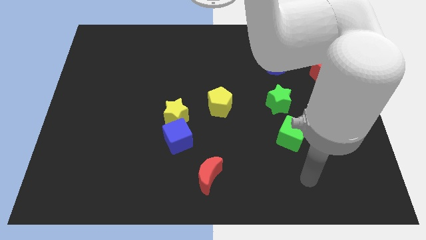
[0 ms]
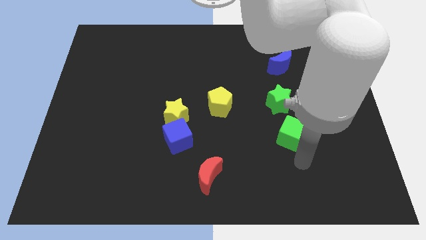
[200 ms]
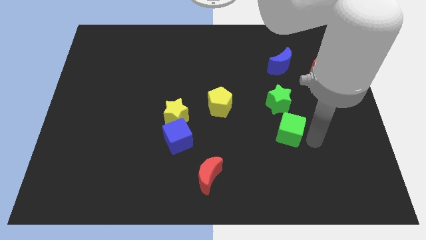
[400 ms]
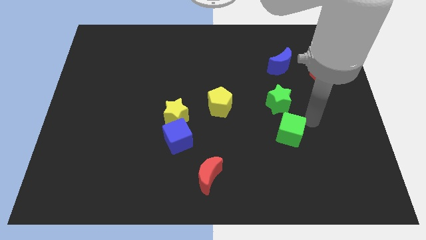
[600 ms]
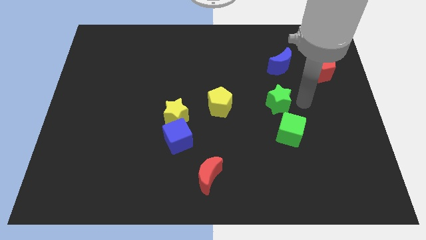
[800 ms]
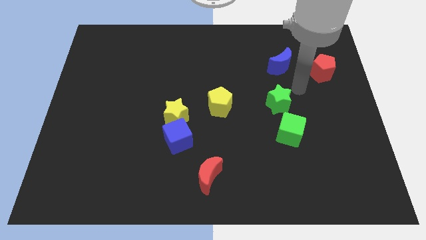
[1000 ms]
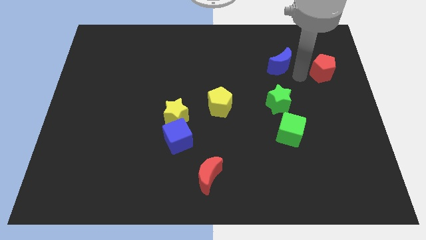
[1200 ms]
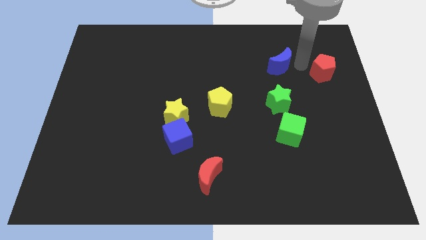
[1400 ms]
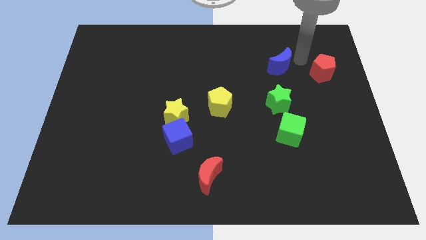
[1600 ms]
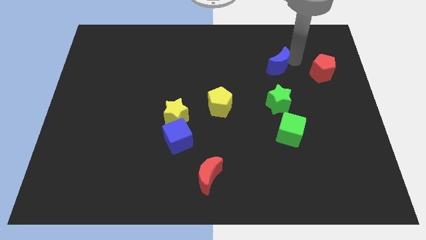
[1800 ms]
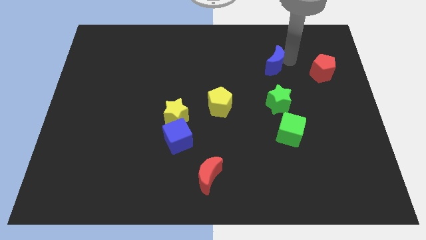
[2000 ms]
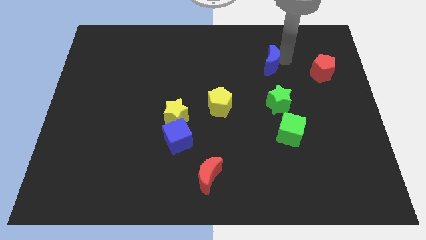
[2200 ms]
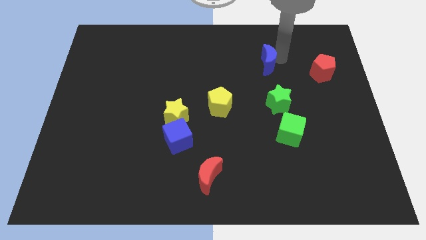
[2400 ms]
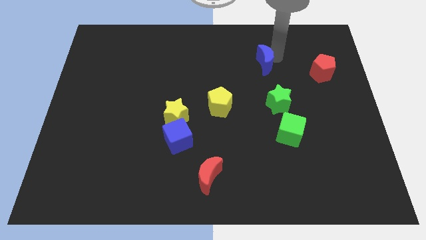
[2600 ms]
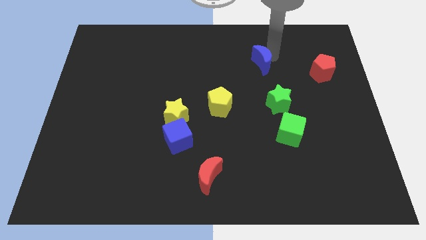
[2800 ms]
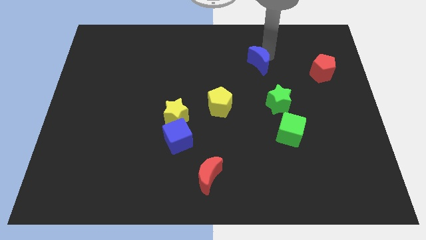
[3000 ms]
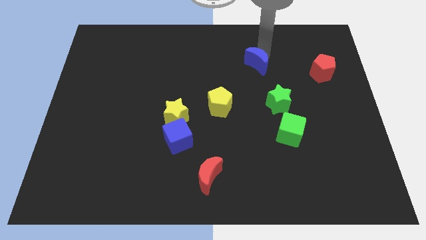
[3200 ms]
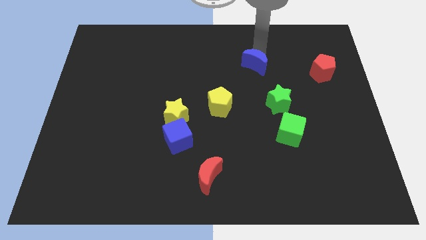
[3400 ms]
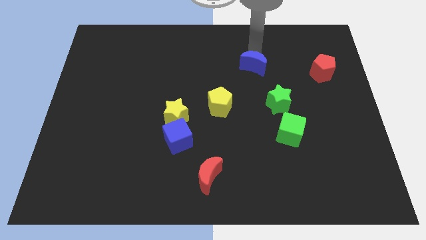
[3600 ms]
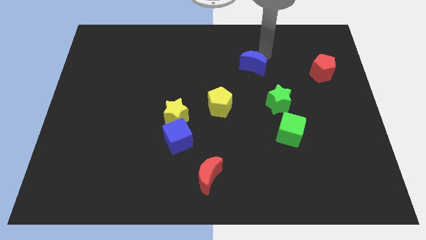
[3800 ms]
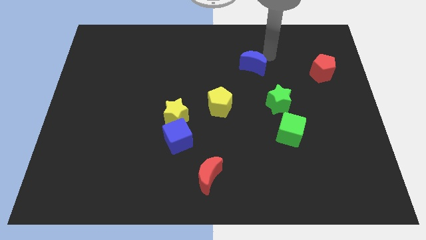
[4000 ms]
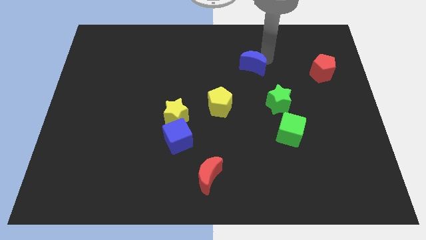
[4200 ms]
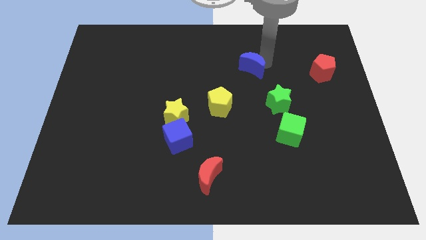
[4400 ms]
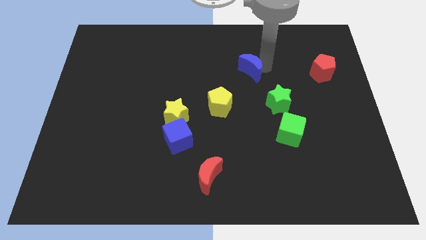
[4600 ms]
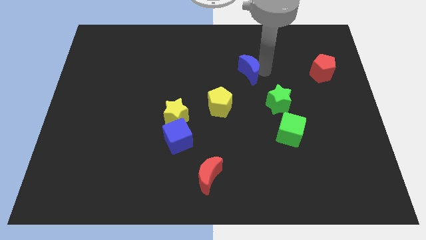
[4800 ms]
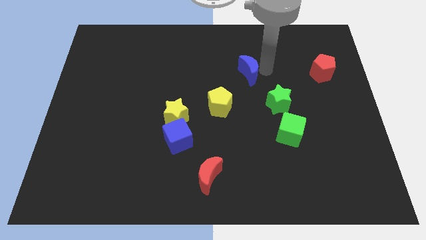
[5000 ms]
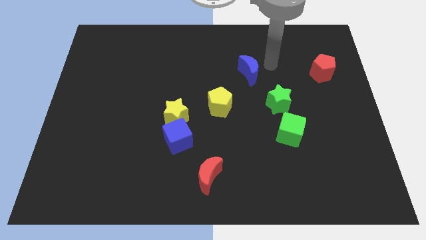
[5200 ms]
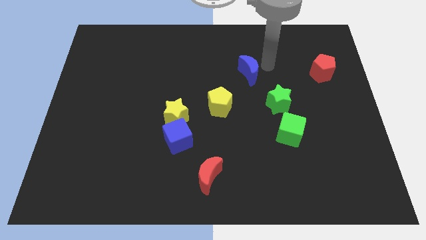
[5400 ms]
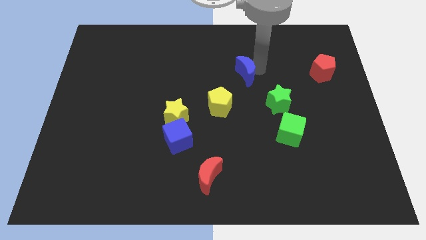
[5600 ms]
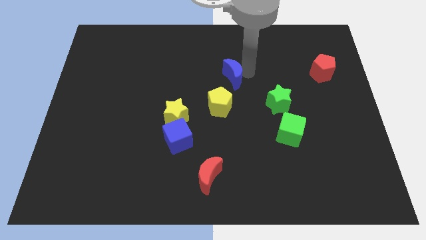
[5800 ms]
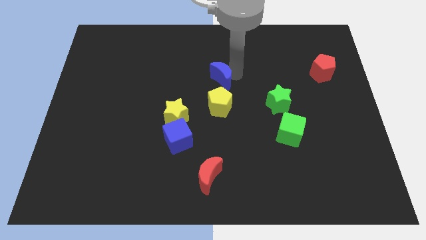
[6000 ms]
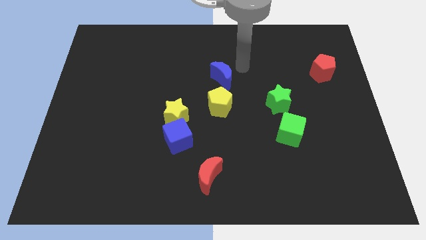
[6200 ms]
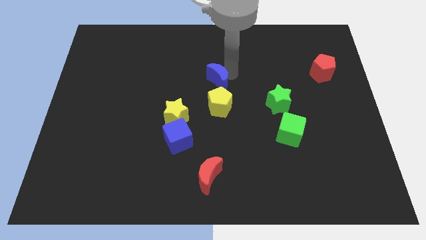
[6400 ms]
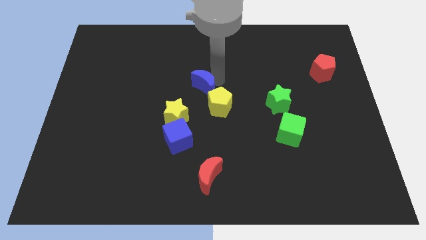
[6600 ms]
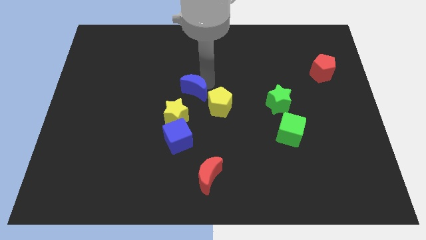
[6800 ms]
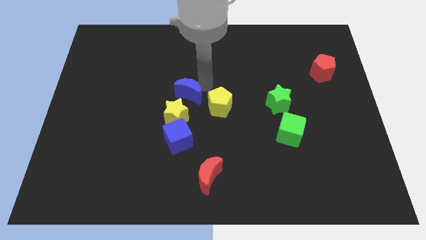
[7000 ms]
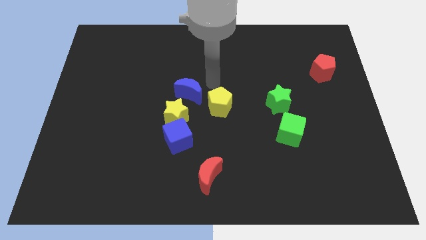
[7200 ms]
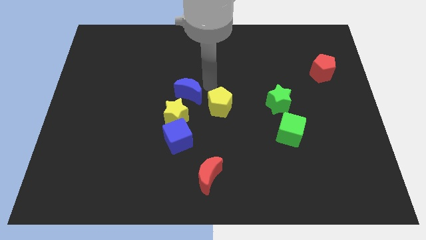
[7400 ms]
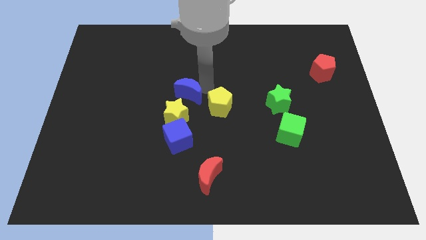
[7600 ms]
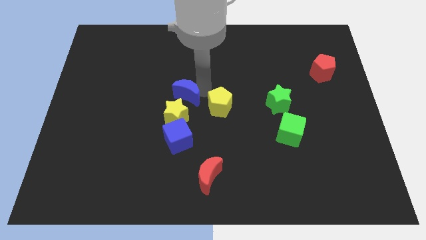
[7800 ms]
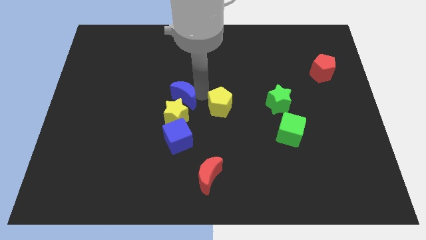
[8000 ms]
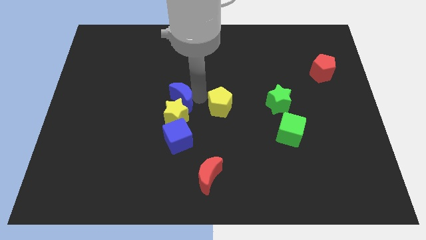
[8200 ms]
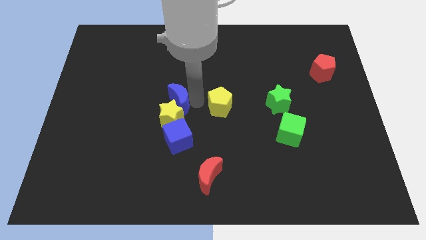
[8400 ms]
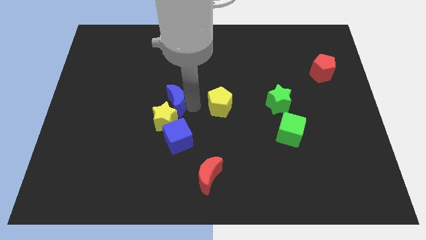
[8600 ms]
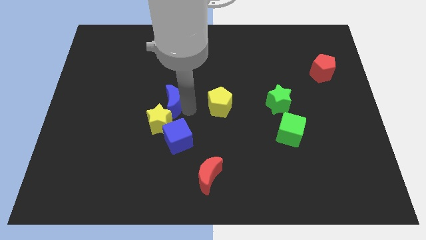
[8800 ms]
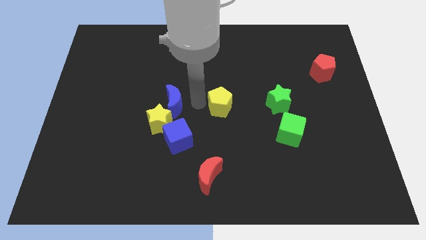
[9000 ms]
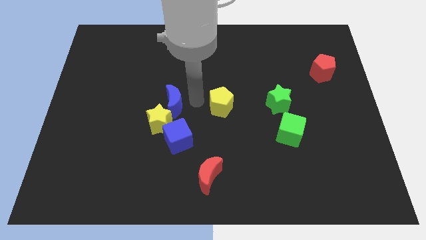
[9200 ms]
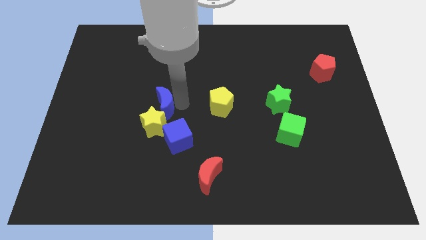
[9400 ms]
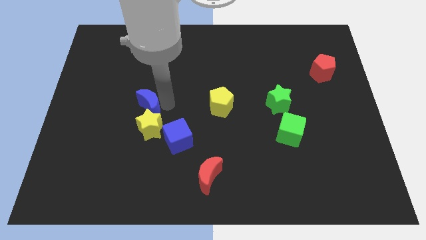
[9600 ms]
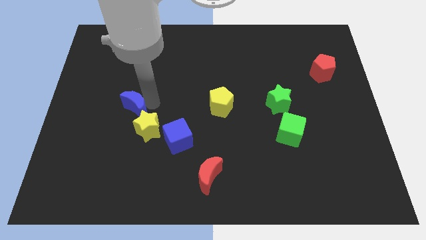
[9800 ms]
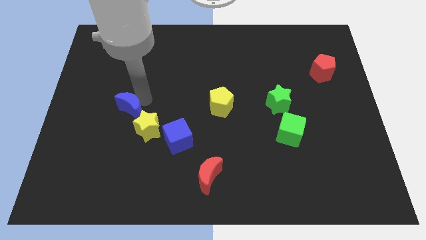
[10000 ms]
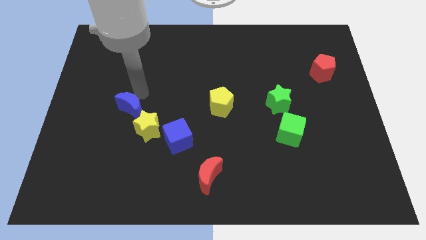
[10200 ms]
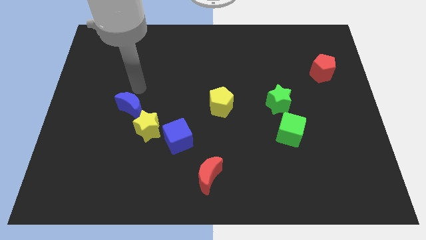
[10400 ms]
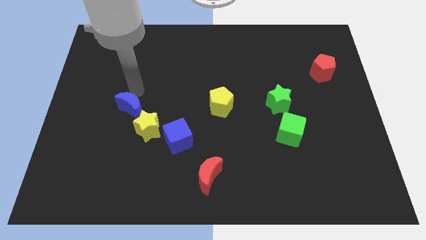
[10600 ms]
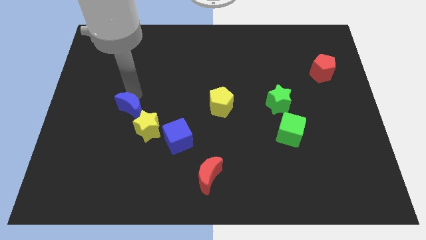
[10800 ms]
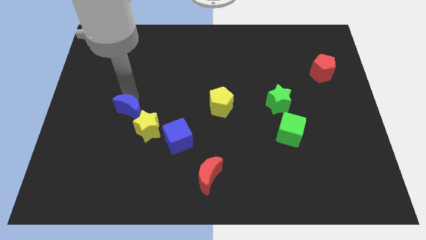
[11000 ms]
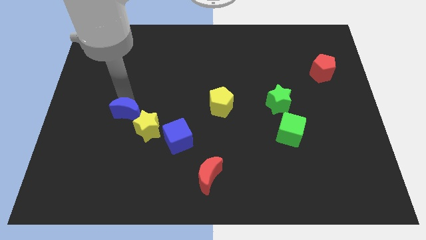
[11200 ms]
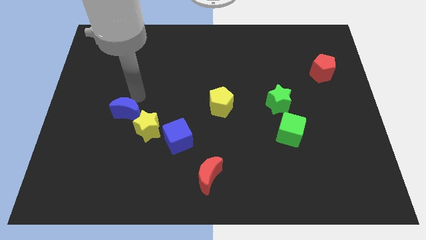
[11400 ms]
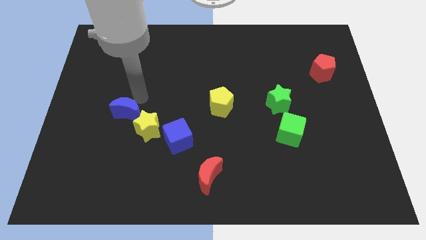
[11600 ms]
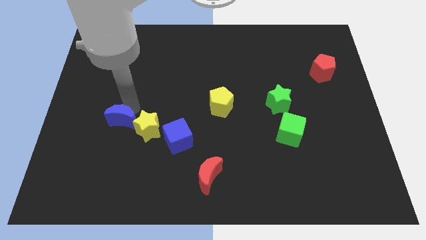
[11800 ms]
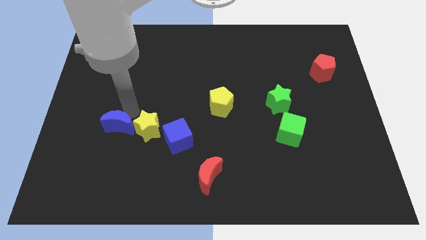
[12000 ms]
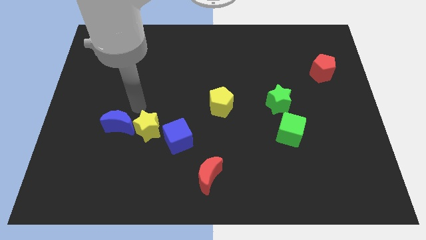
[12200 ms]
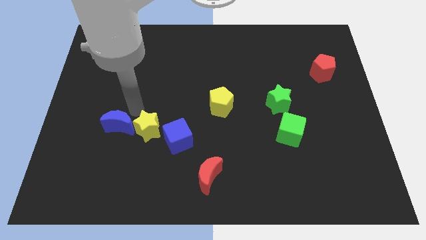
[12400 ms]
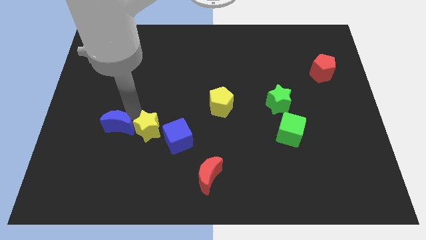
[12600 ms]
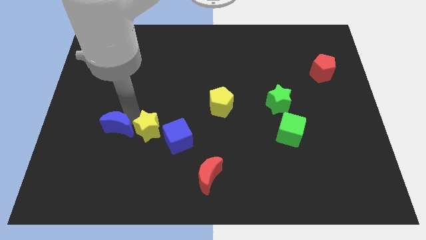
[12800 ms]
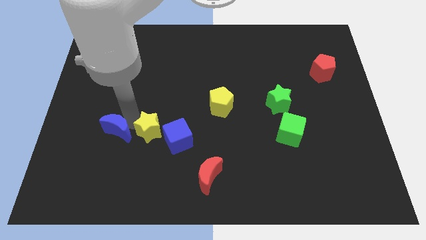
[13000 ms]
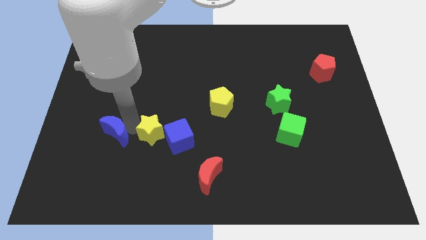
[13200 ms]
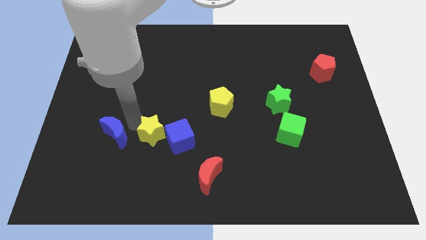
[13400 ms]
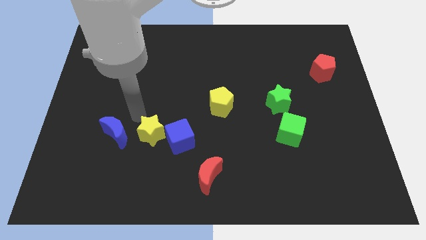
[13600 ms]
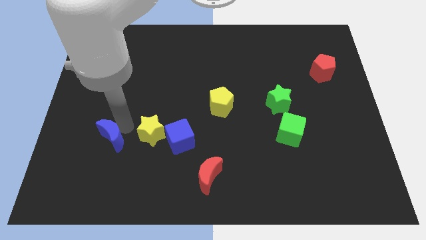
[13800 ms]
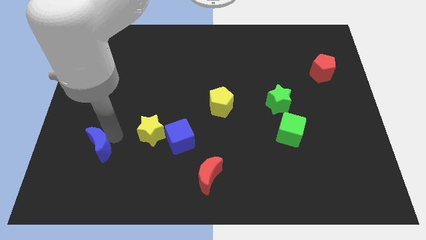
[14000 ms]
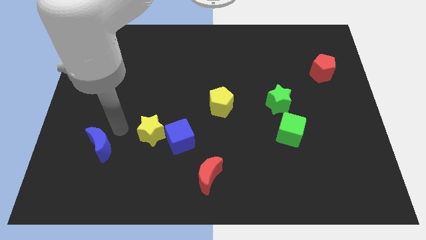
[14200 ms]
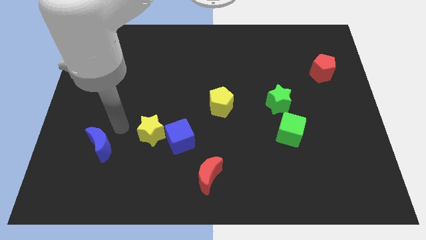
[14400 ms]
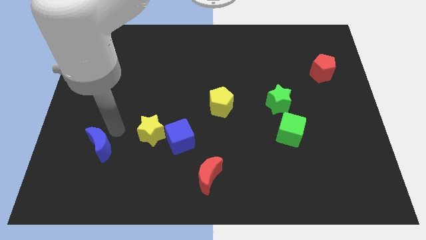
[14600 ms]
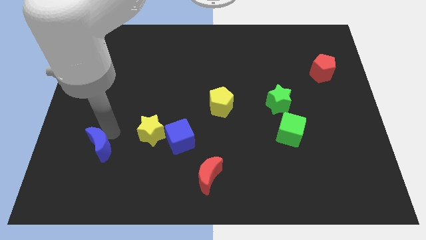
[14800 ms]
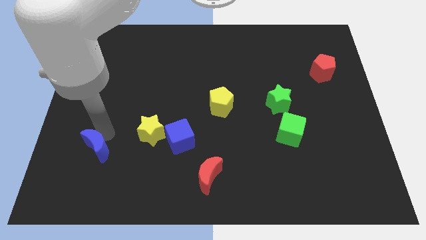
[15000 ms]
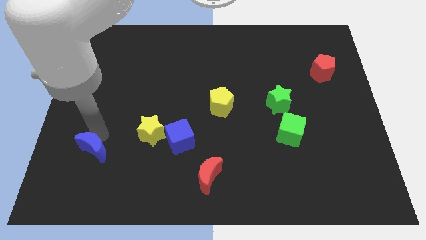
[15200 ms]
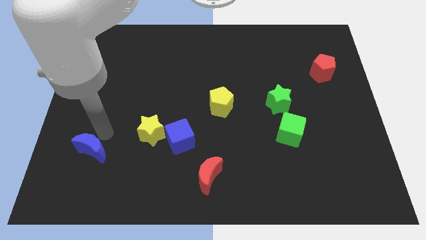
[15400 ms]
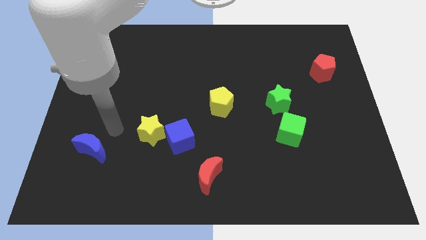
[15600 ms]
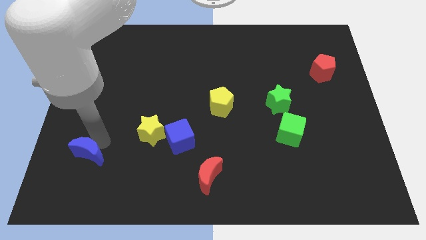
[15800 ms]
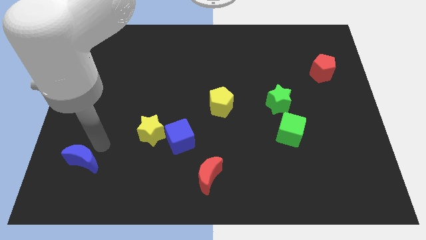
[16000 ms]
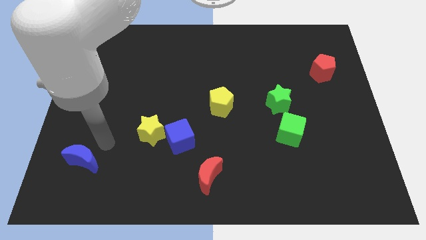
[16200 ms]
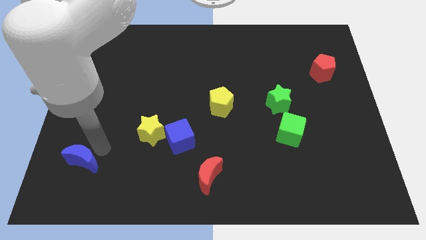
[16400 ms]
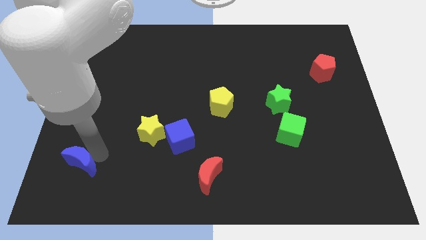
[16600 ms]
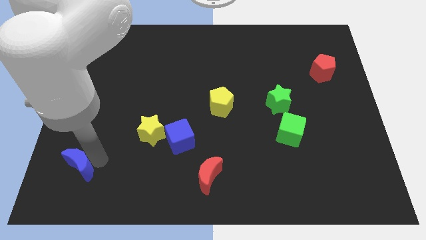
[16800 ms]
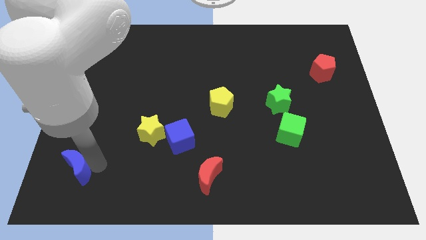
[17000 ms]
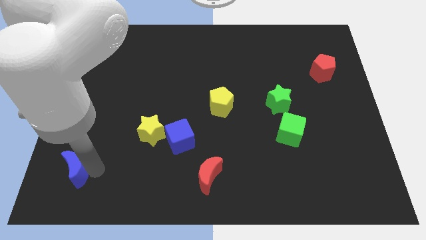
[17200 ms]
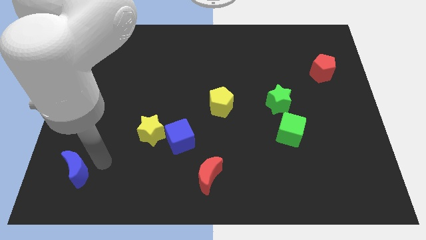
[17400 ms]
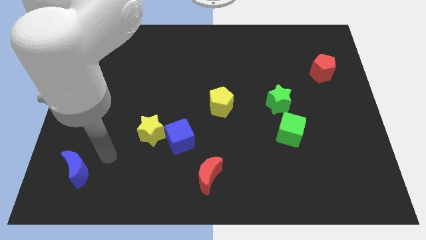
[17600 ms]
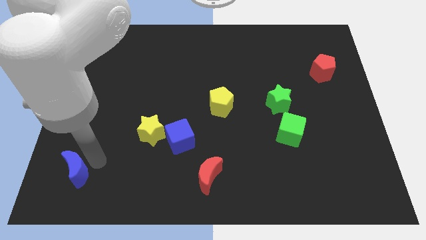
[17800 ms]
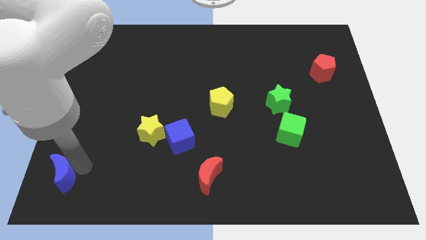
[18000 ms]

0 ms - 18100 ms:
move the blue moon to the bottom left of the board
